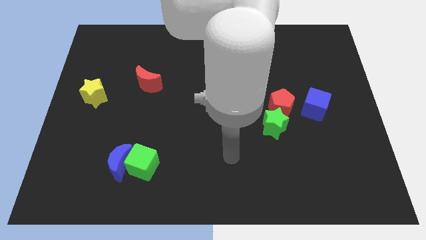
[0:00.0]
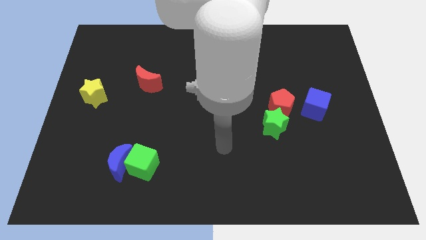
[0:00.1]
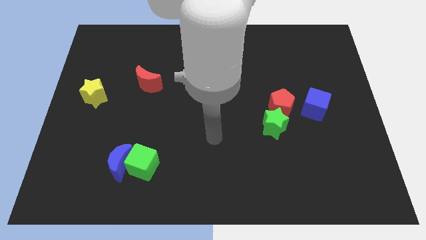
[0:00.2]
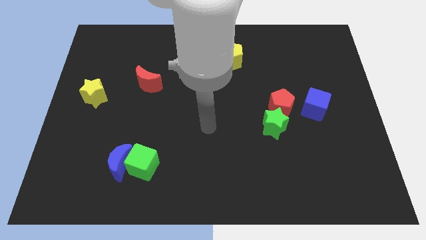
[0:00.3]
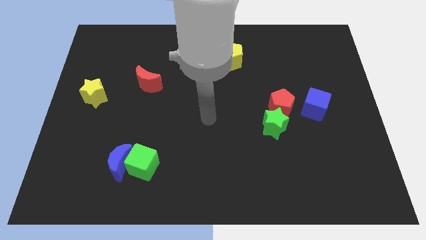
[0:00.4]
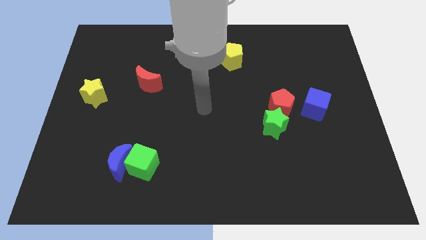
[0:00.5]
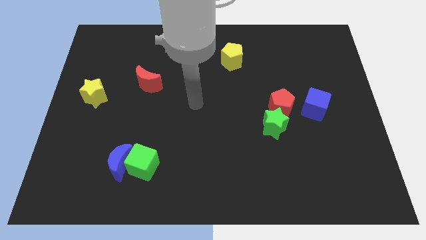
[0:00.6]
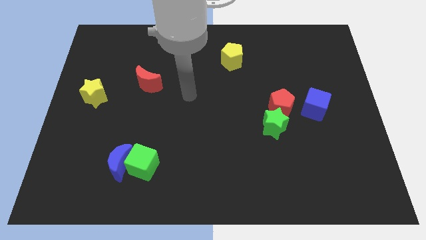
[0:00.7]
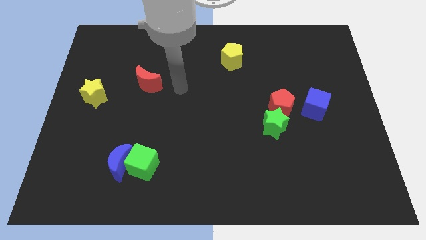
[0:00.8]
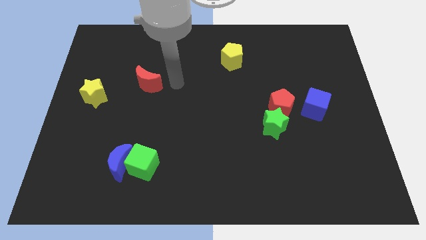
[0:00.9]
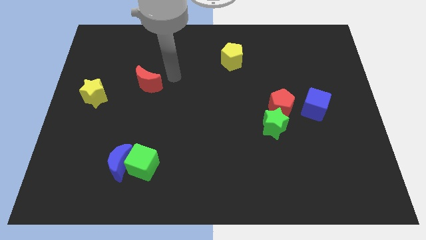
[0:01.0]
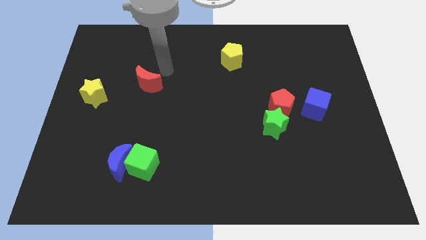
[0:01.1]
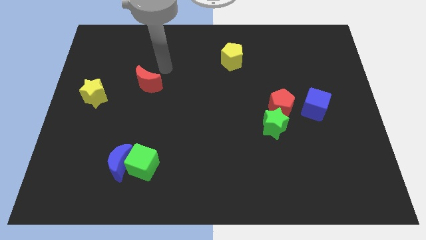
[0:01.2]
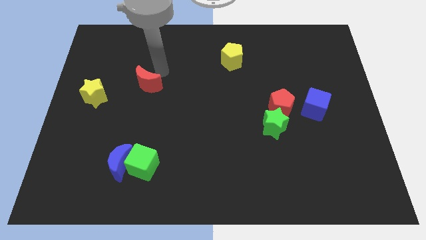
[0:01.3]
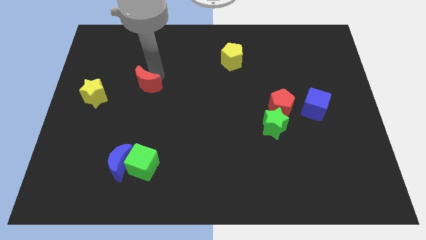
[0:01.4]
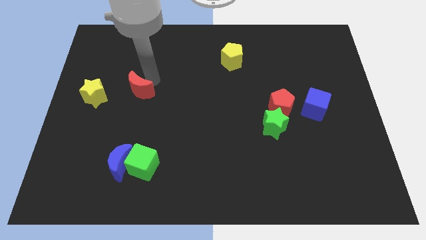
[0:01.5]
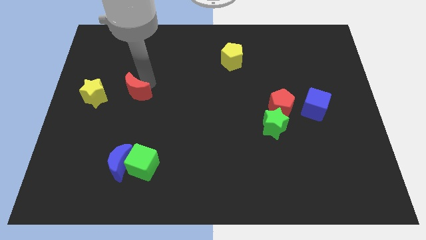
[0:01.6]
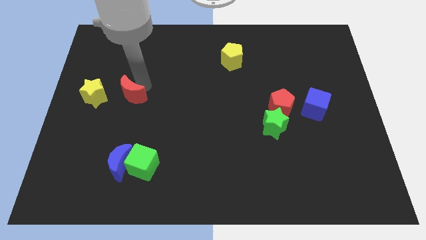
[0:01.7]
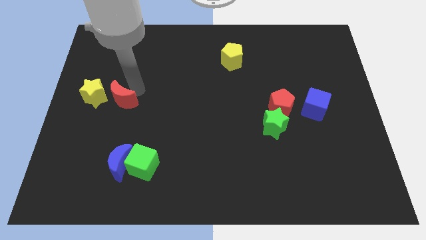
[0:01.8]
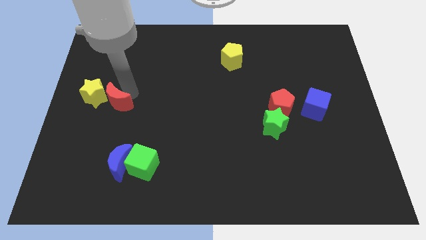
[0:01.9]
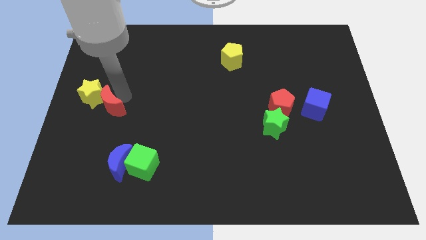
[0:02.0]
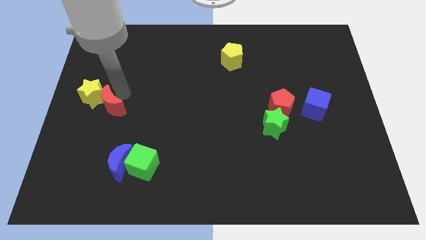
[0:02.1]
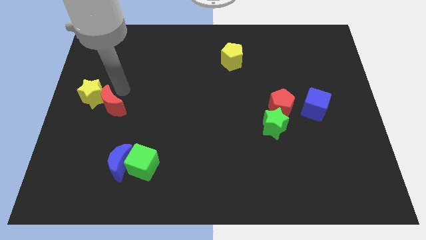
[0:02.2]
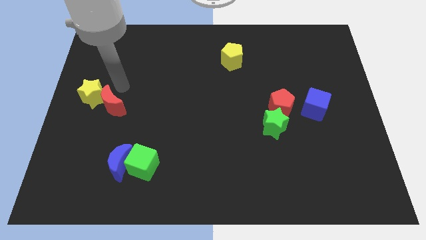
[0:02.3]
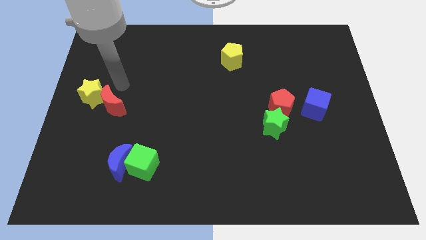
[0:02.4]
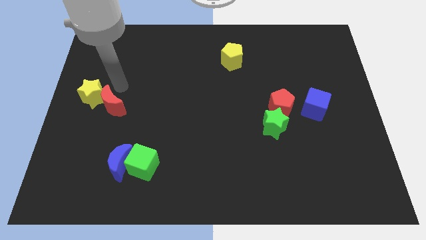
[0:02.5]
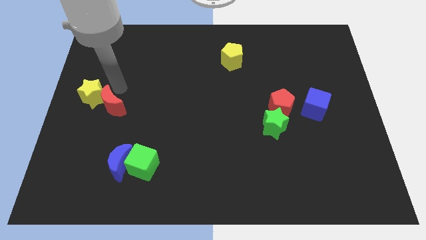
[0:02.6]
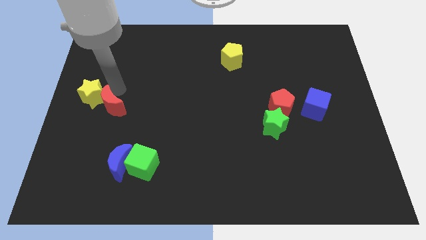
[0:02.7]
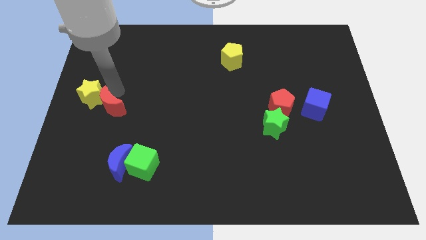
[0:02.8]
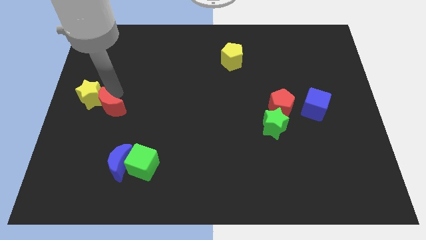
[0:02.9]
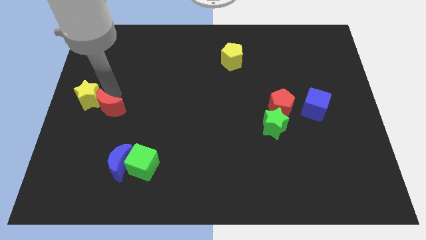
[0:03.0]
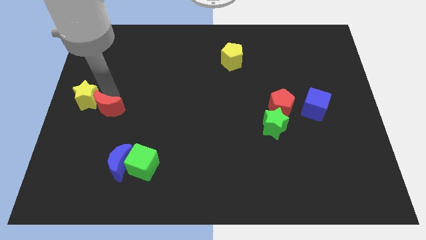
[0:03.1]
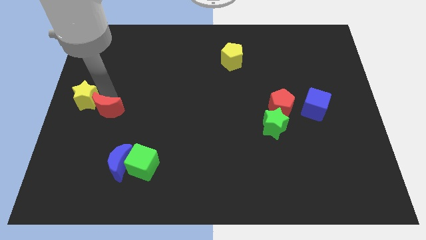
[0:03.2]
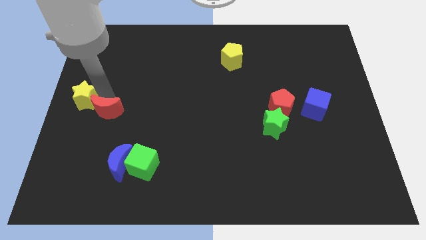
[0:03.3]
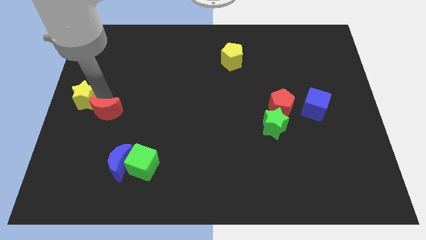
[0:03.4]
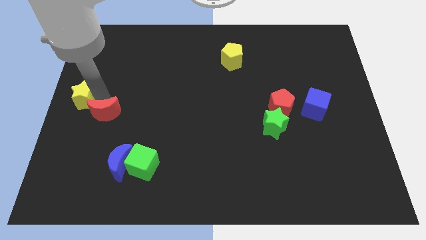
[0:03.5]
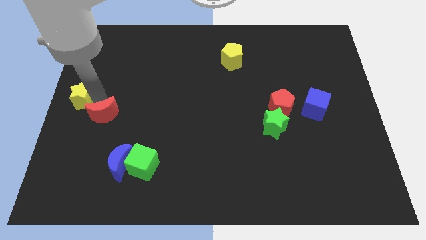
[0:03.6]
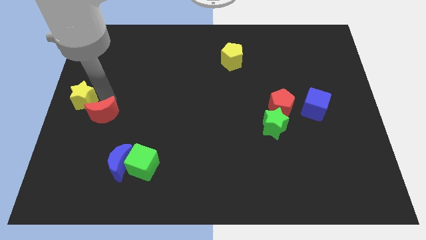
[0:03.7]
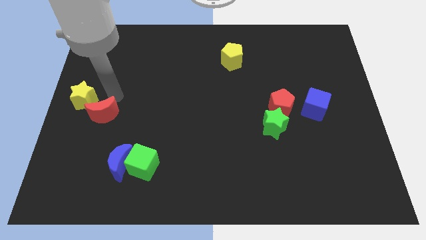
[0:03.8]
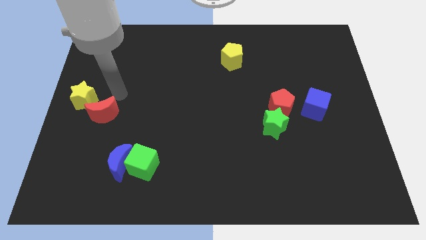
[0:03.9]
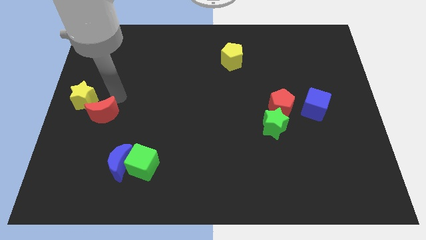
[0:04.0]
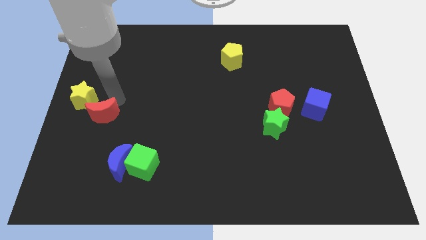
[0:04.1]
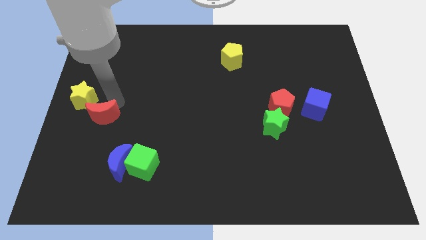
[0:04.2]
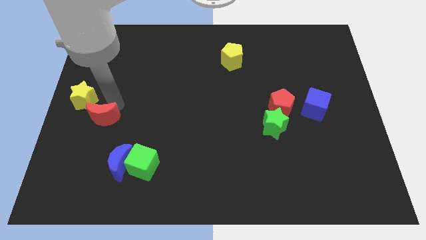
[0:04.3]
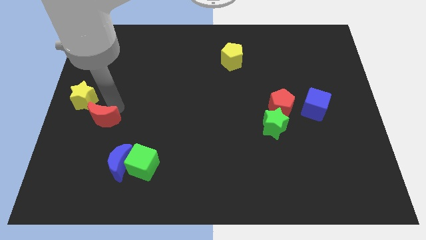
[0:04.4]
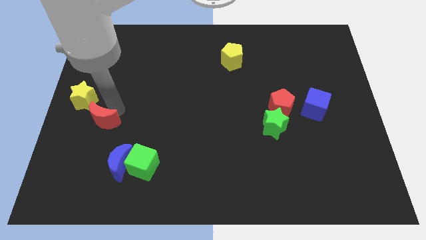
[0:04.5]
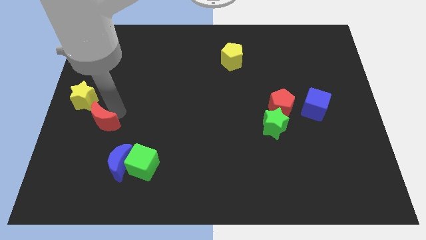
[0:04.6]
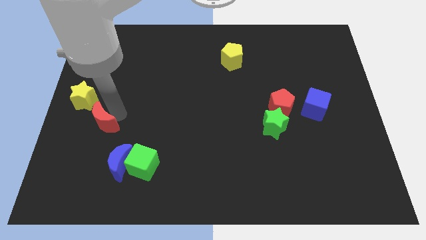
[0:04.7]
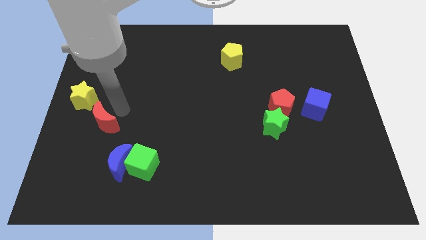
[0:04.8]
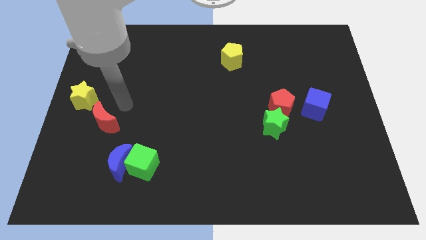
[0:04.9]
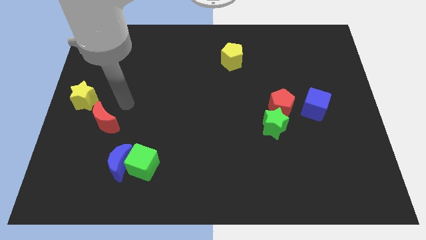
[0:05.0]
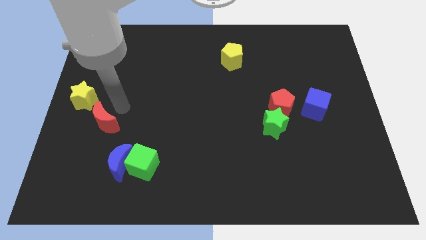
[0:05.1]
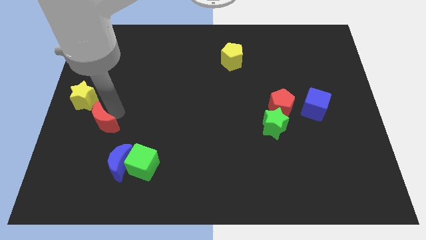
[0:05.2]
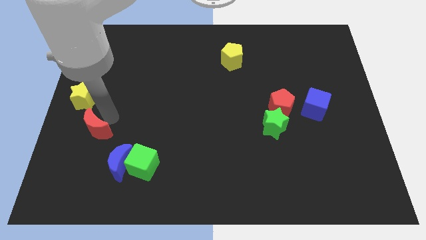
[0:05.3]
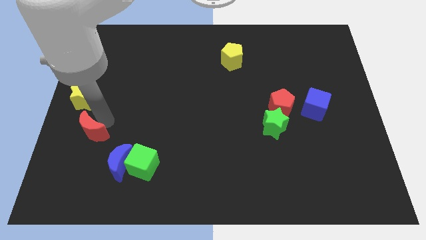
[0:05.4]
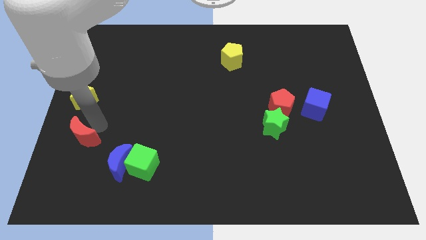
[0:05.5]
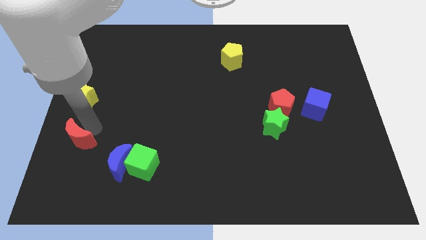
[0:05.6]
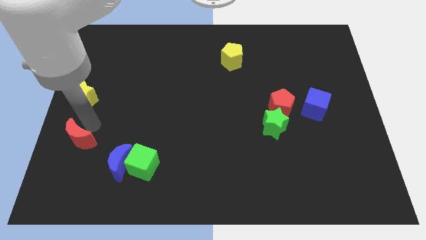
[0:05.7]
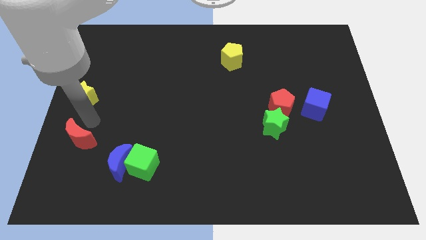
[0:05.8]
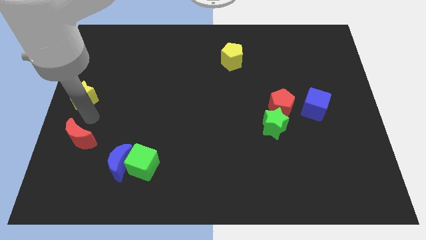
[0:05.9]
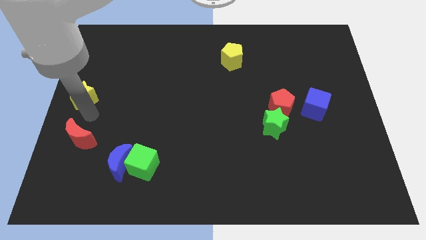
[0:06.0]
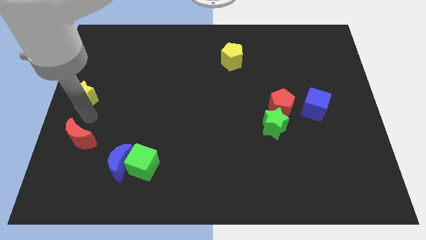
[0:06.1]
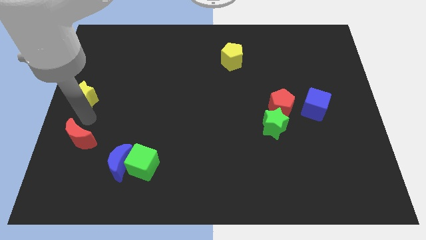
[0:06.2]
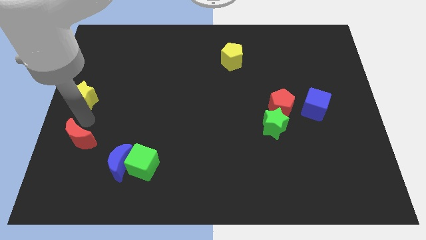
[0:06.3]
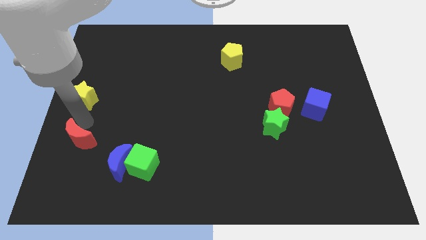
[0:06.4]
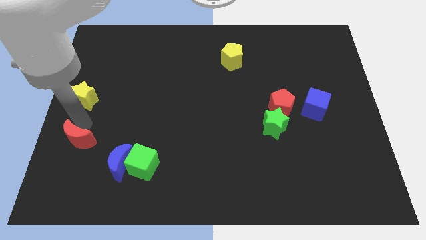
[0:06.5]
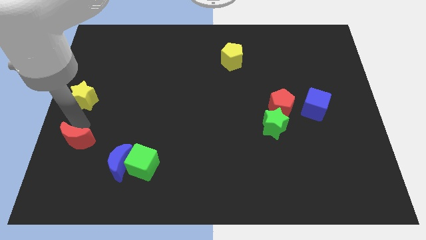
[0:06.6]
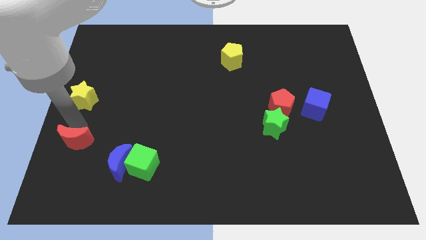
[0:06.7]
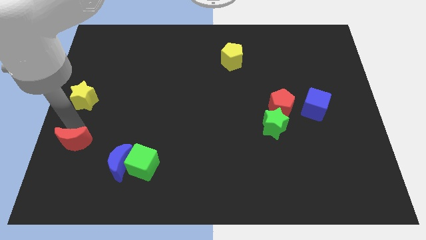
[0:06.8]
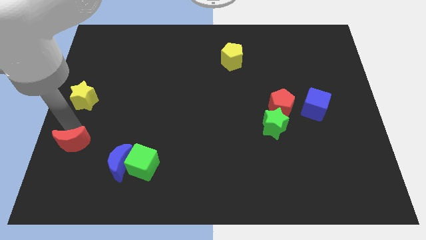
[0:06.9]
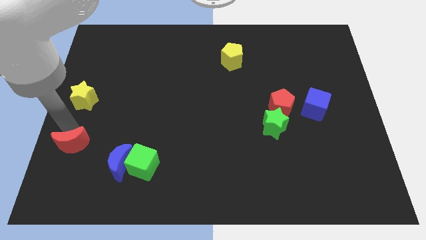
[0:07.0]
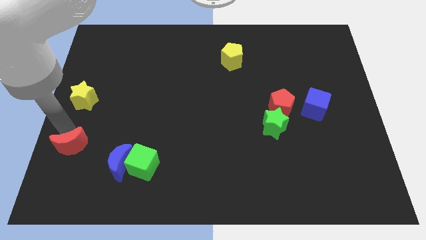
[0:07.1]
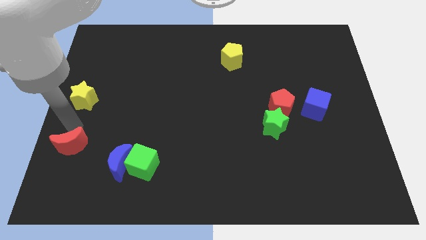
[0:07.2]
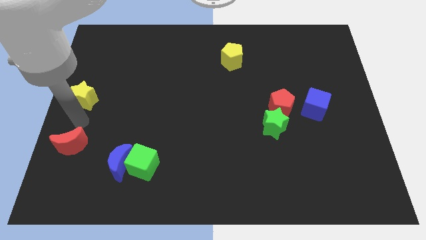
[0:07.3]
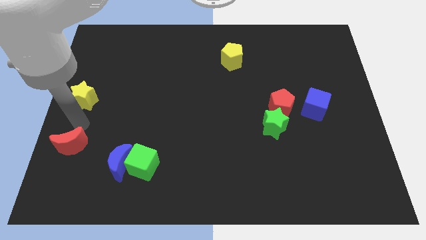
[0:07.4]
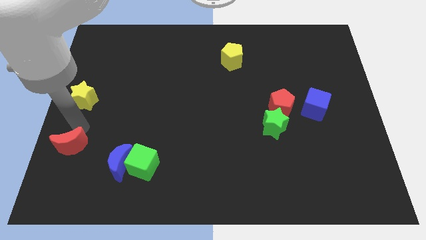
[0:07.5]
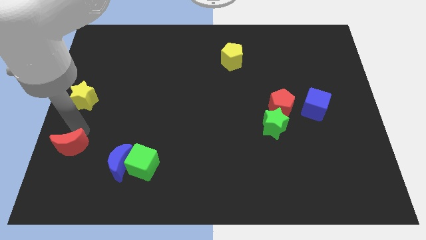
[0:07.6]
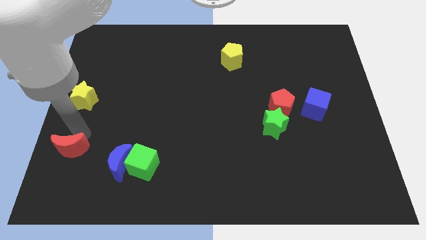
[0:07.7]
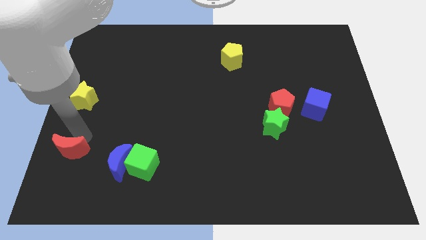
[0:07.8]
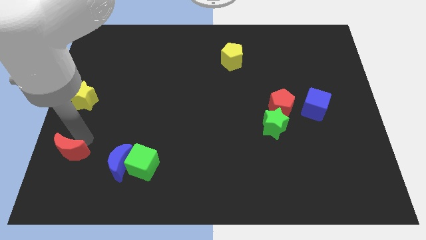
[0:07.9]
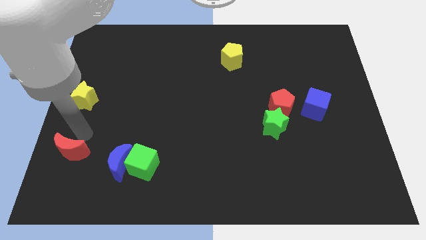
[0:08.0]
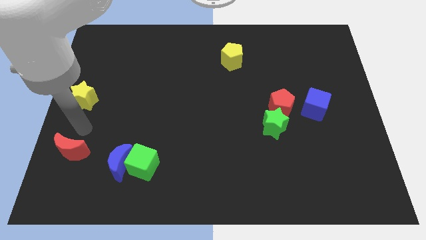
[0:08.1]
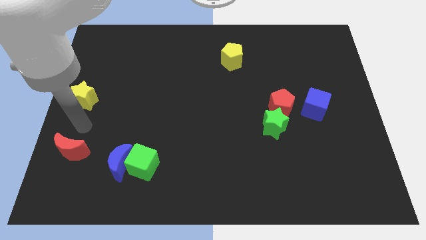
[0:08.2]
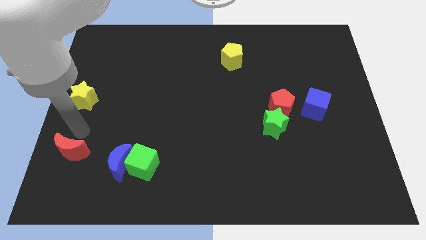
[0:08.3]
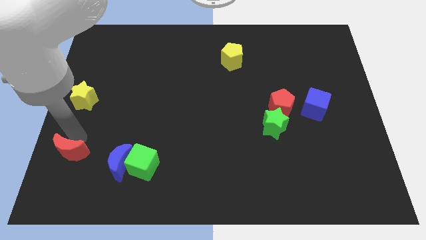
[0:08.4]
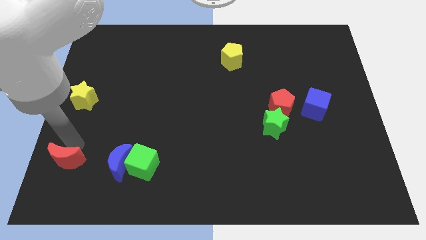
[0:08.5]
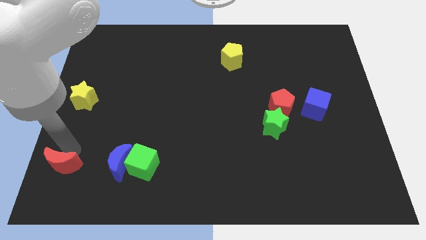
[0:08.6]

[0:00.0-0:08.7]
move the red moon to the bottom left corner
